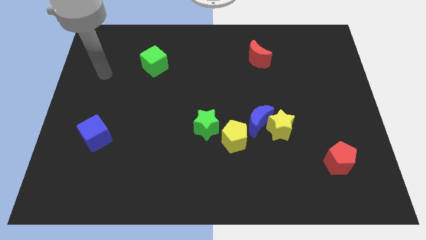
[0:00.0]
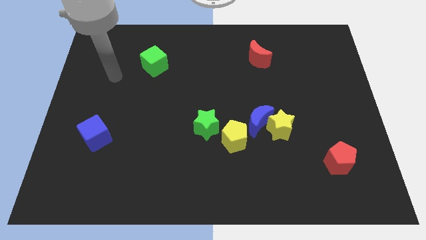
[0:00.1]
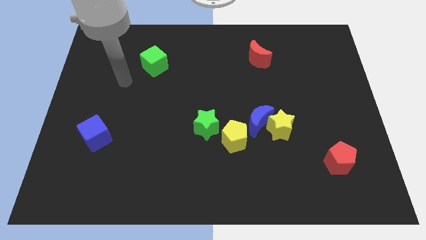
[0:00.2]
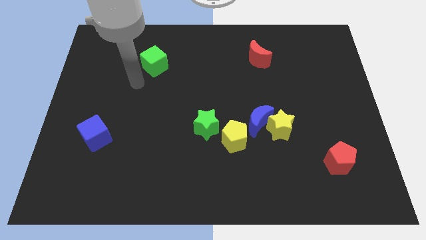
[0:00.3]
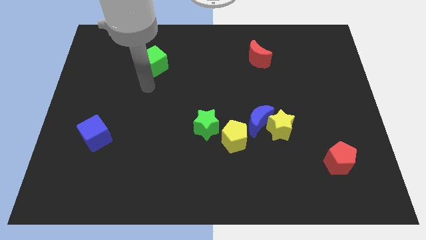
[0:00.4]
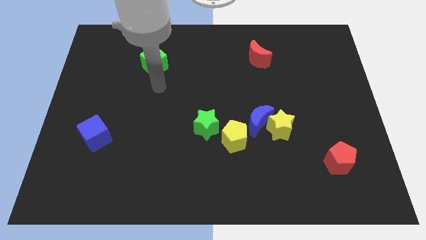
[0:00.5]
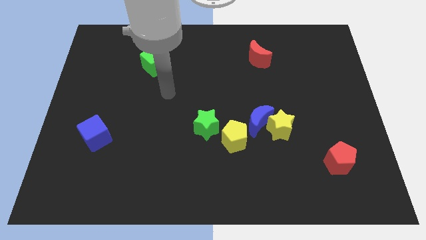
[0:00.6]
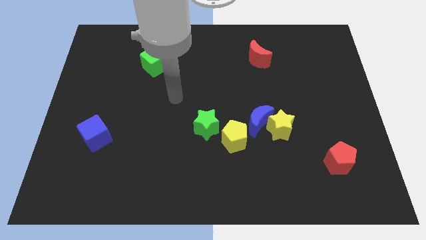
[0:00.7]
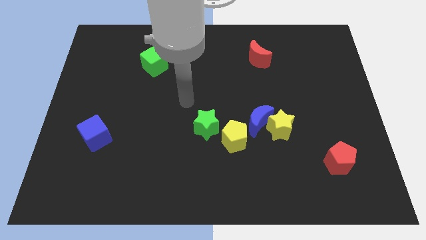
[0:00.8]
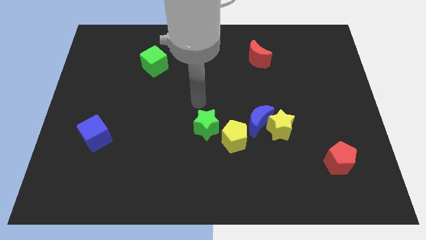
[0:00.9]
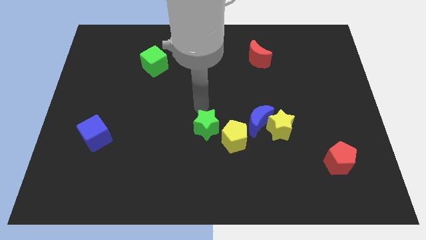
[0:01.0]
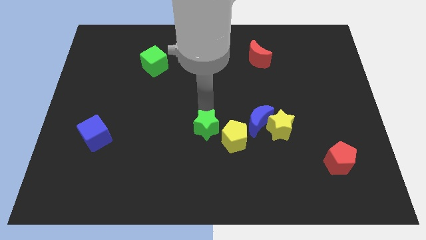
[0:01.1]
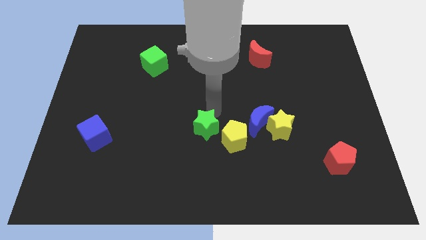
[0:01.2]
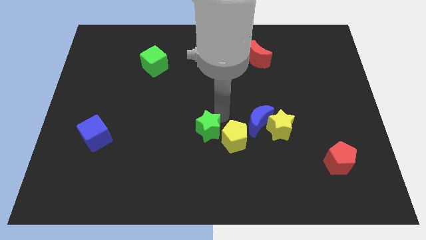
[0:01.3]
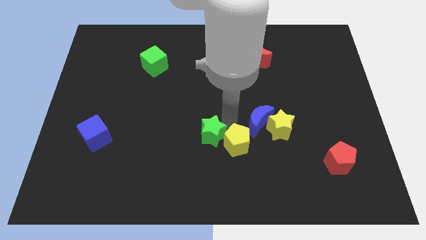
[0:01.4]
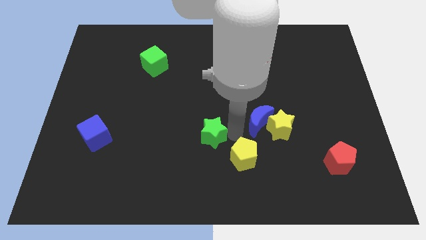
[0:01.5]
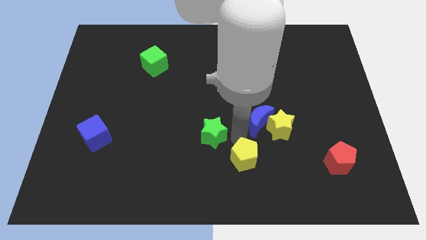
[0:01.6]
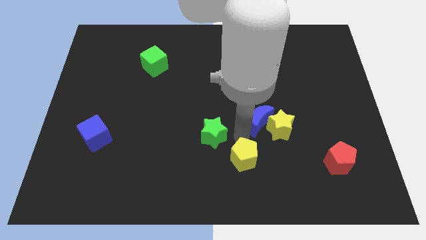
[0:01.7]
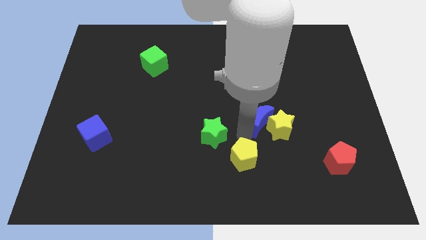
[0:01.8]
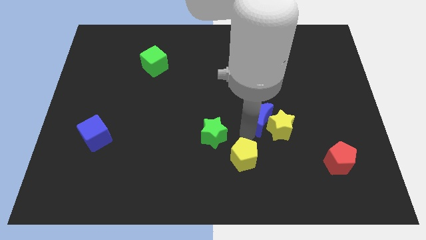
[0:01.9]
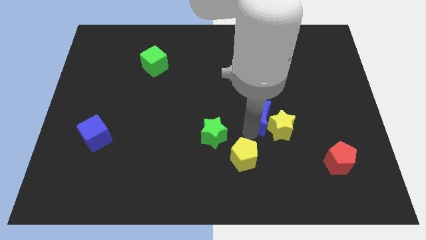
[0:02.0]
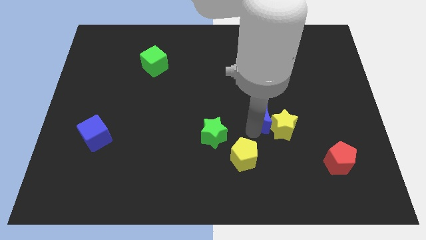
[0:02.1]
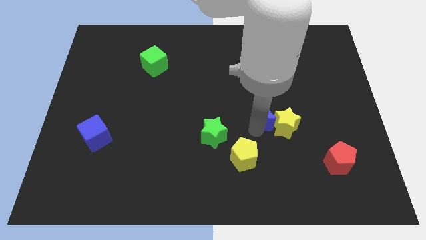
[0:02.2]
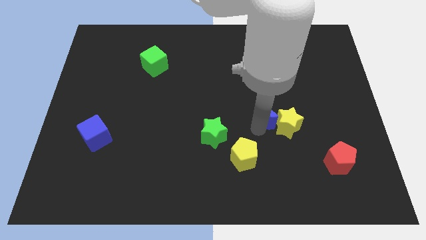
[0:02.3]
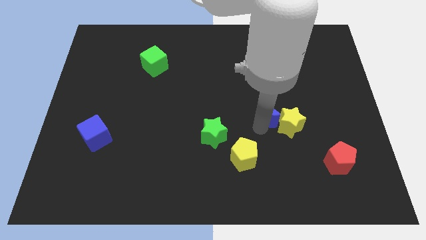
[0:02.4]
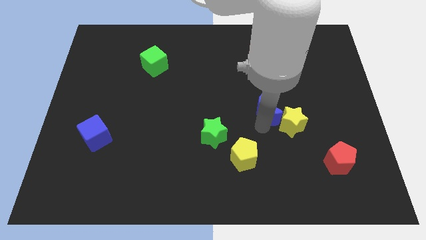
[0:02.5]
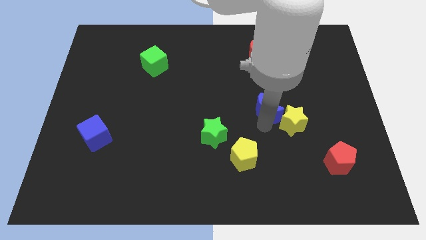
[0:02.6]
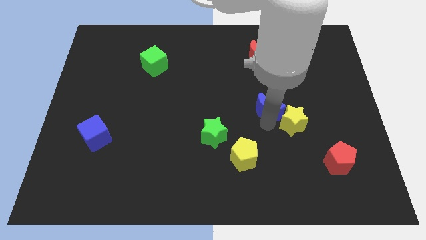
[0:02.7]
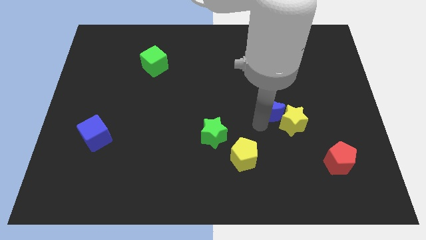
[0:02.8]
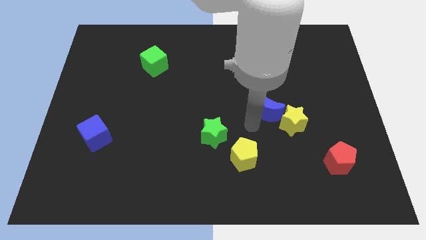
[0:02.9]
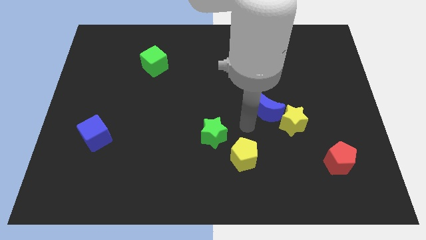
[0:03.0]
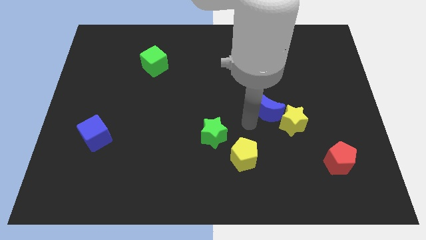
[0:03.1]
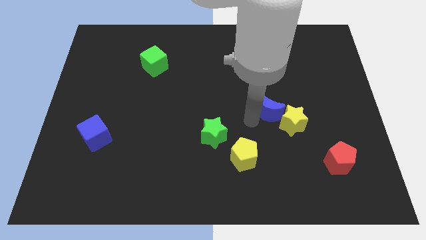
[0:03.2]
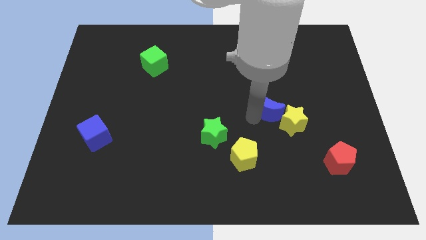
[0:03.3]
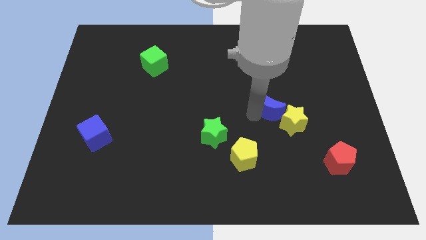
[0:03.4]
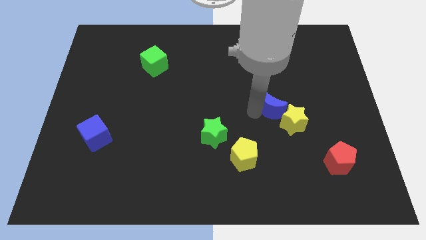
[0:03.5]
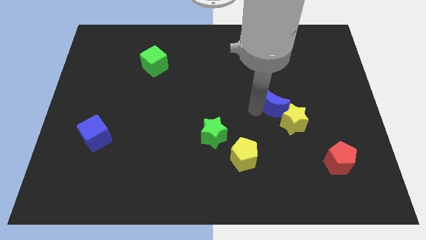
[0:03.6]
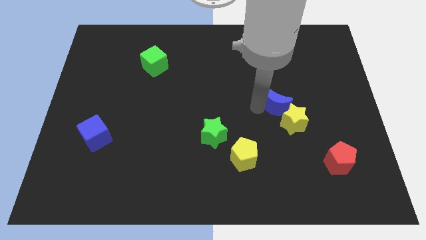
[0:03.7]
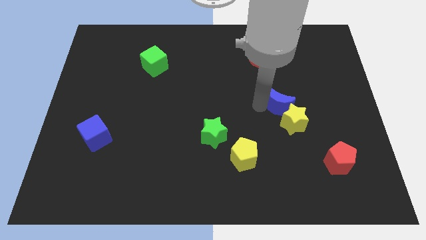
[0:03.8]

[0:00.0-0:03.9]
move the blue moon upwards and to the right diagonally a little bit

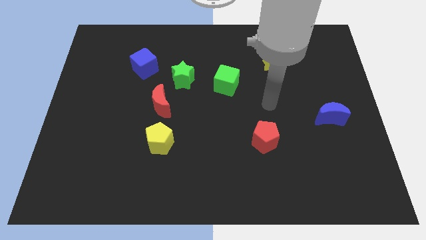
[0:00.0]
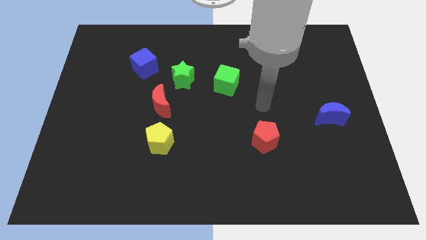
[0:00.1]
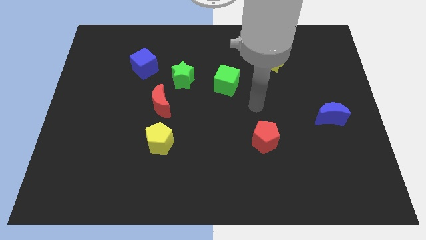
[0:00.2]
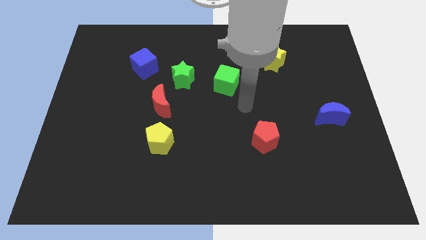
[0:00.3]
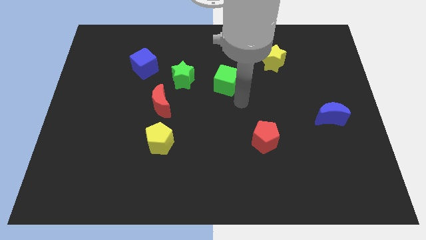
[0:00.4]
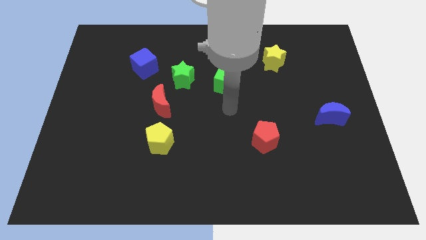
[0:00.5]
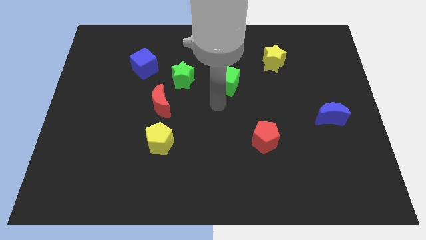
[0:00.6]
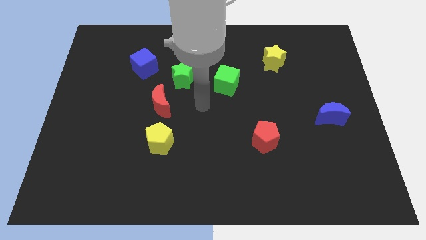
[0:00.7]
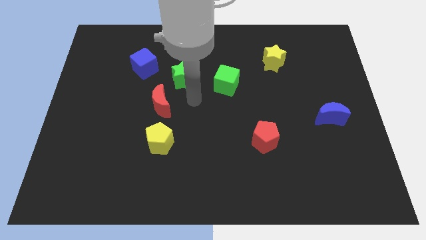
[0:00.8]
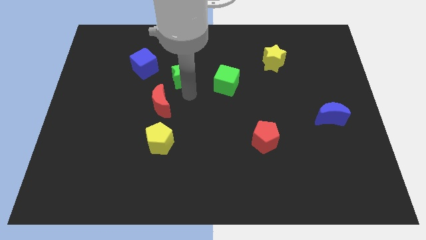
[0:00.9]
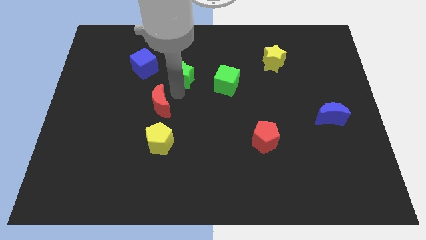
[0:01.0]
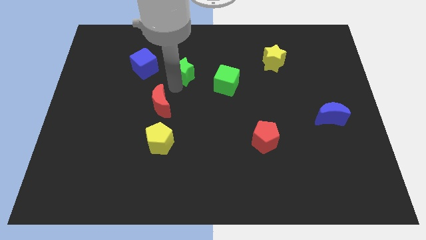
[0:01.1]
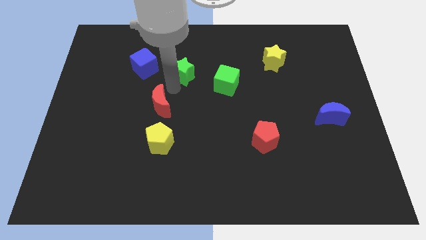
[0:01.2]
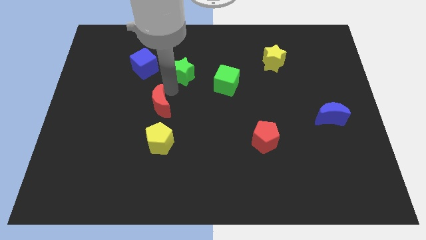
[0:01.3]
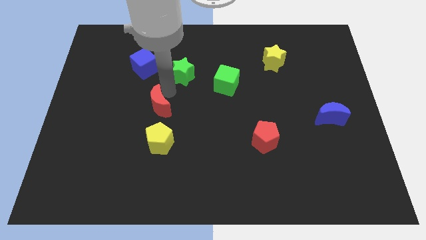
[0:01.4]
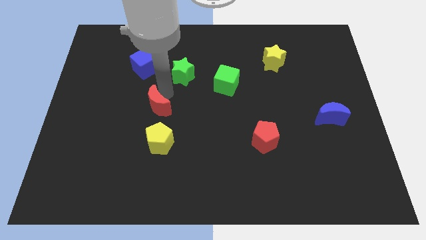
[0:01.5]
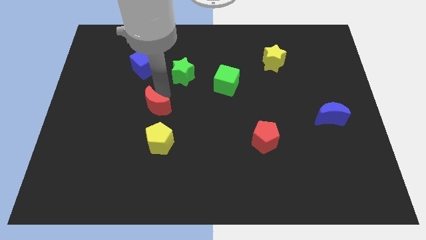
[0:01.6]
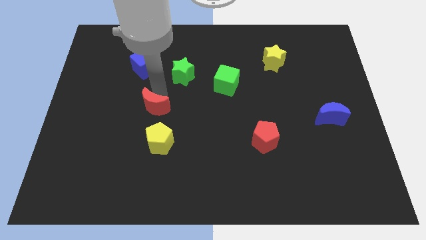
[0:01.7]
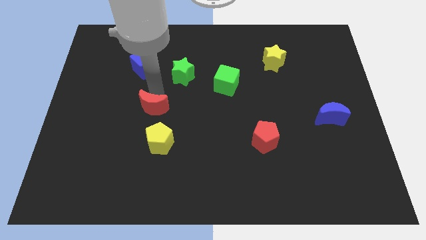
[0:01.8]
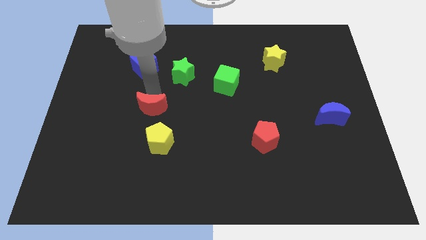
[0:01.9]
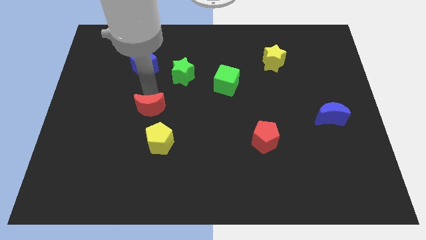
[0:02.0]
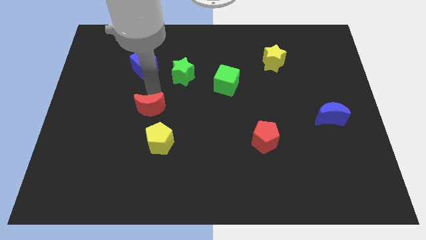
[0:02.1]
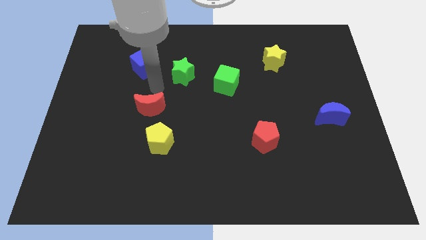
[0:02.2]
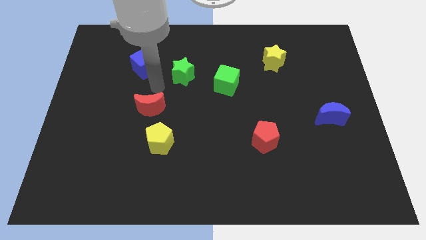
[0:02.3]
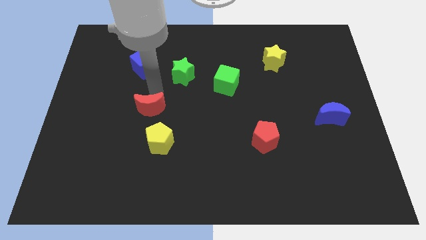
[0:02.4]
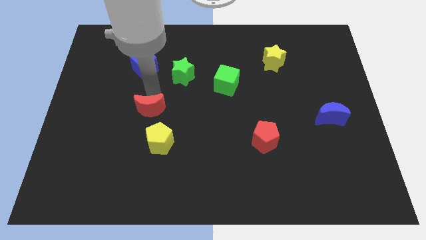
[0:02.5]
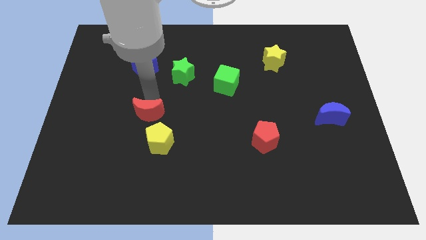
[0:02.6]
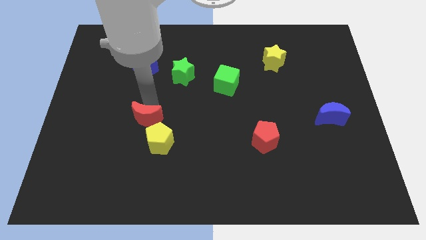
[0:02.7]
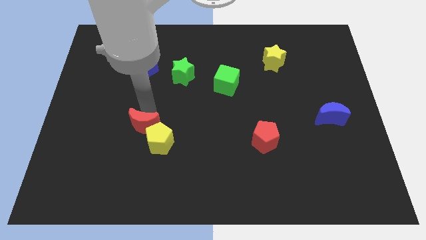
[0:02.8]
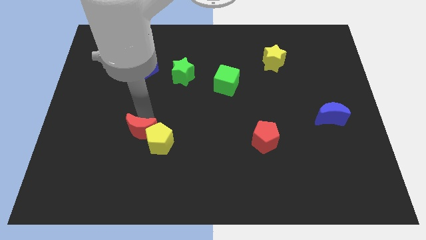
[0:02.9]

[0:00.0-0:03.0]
move the red moon a little downwards

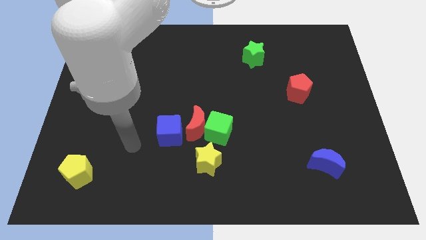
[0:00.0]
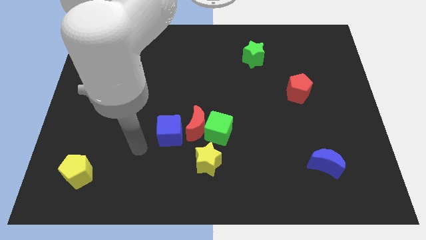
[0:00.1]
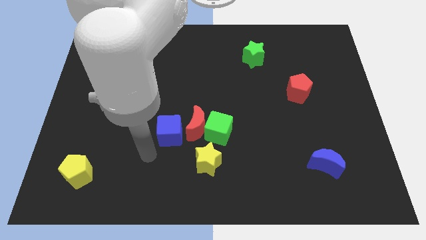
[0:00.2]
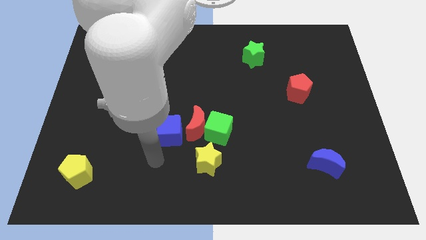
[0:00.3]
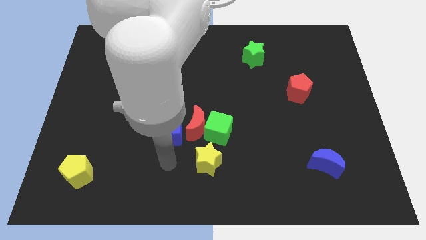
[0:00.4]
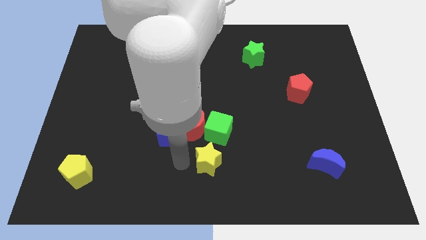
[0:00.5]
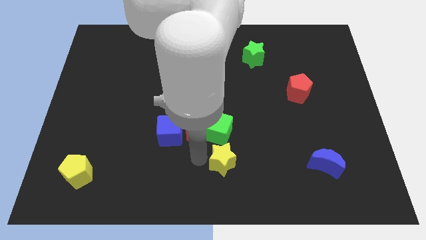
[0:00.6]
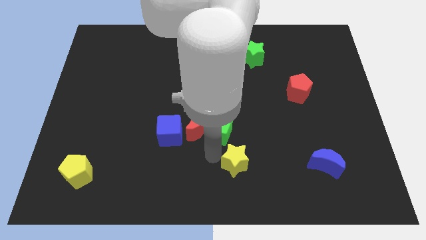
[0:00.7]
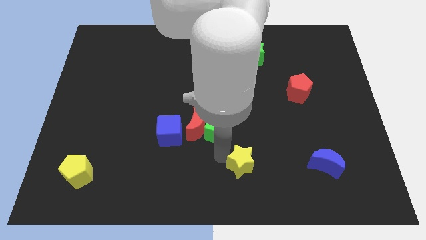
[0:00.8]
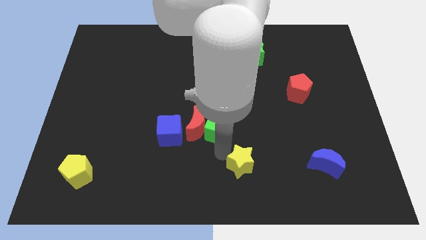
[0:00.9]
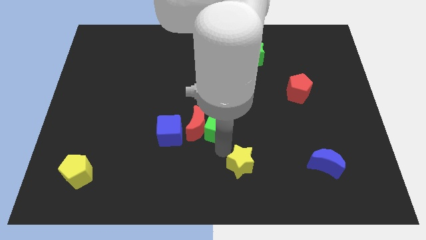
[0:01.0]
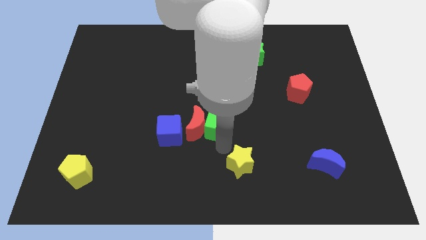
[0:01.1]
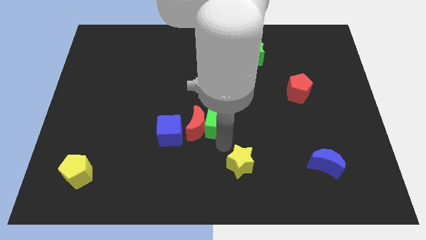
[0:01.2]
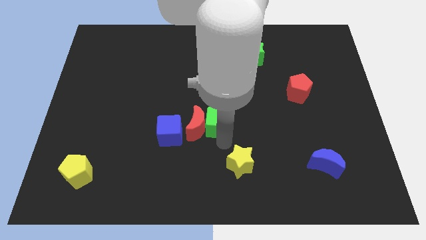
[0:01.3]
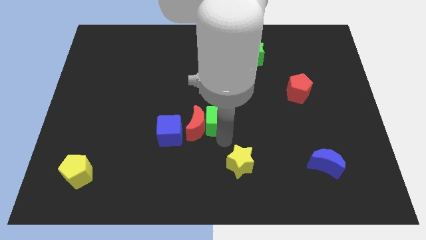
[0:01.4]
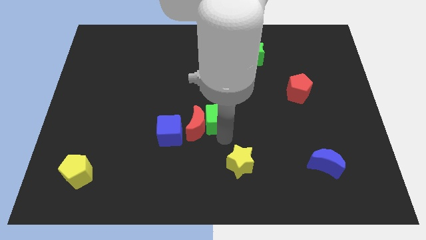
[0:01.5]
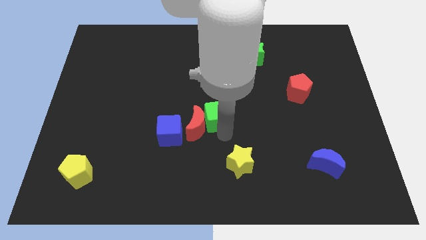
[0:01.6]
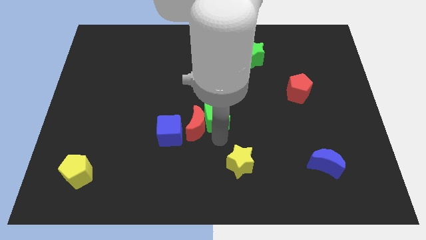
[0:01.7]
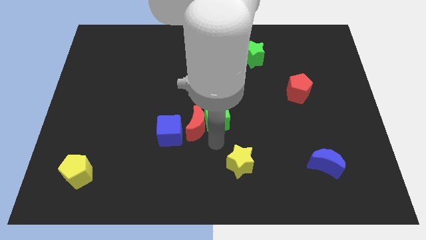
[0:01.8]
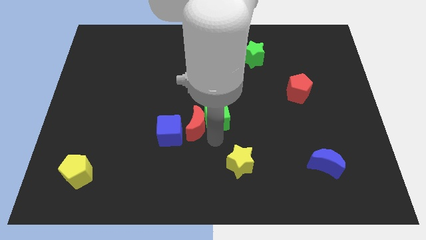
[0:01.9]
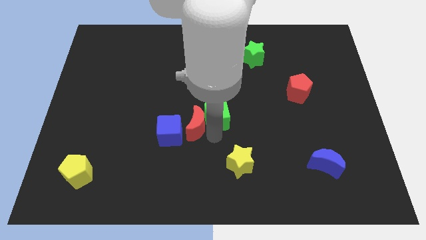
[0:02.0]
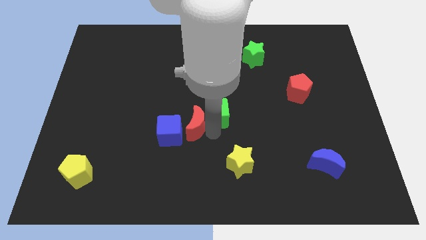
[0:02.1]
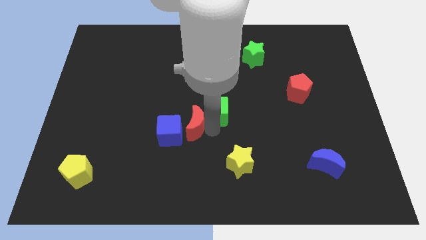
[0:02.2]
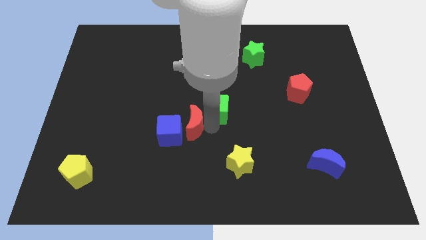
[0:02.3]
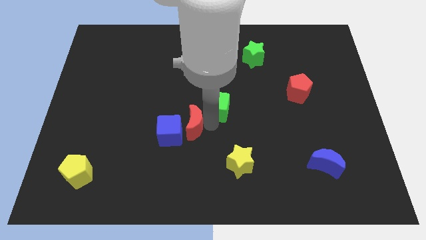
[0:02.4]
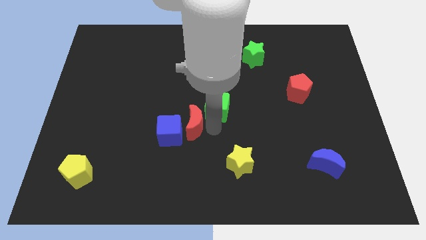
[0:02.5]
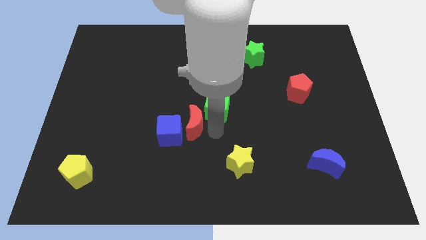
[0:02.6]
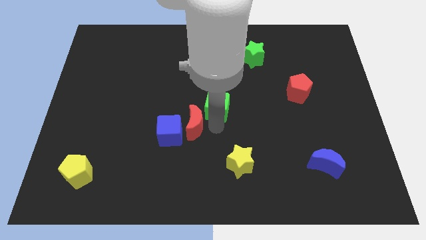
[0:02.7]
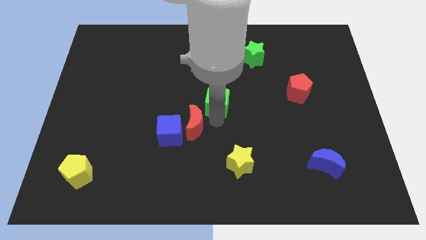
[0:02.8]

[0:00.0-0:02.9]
slide the green cube upwards a little
